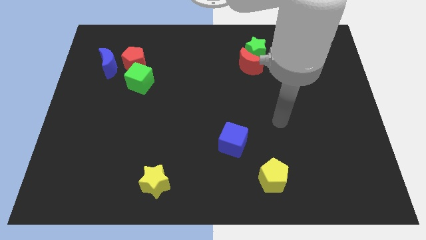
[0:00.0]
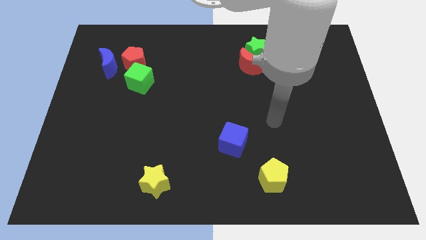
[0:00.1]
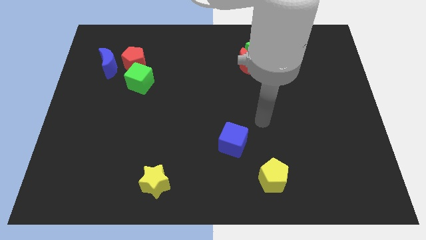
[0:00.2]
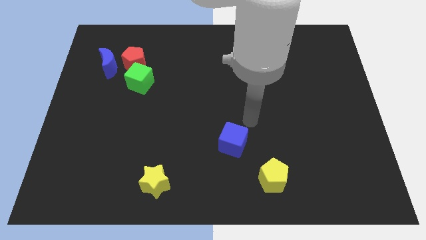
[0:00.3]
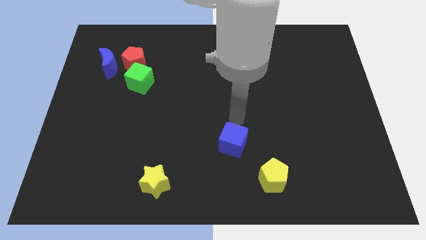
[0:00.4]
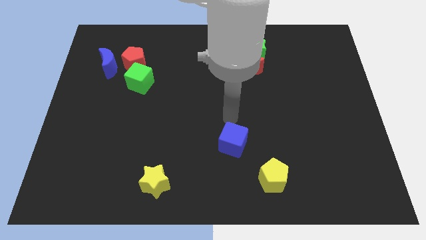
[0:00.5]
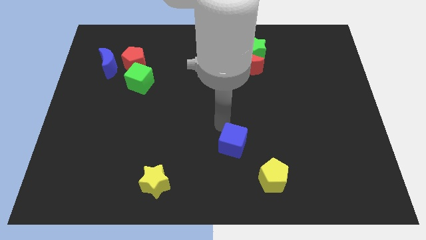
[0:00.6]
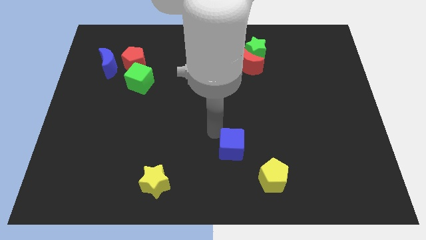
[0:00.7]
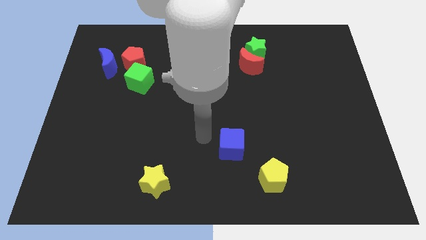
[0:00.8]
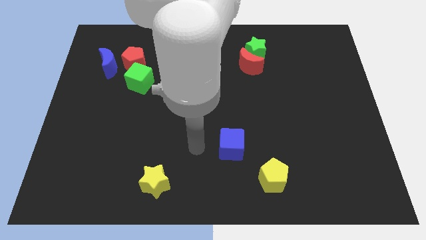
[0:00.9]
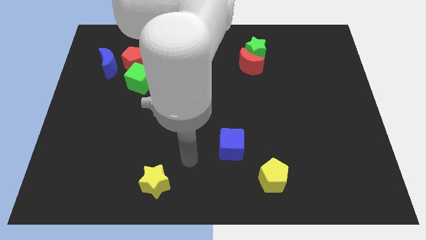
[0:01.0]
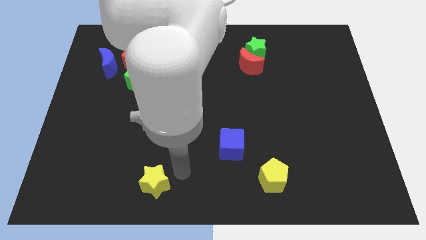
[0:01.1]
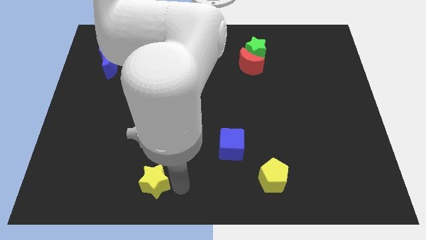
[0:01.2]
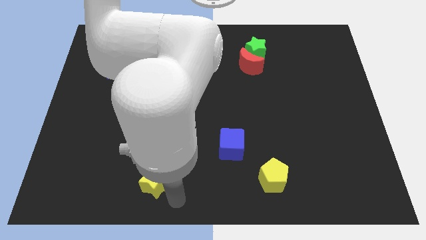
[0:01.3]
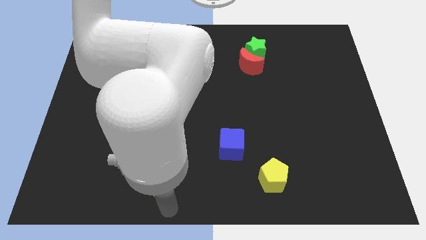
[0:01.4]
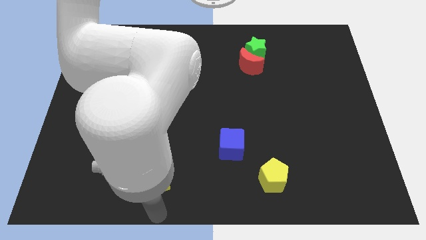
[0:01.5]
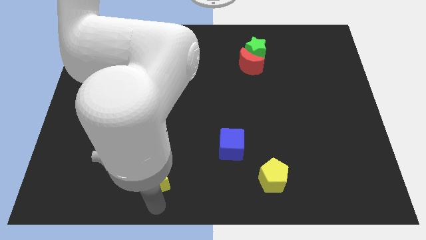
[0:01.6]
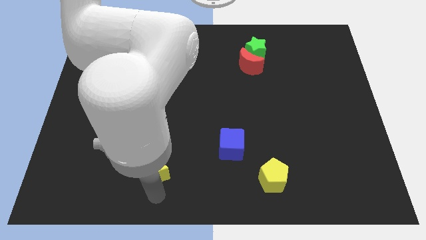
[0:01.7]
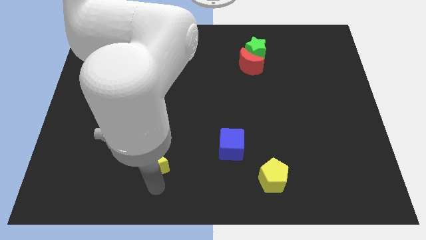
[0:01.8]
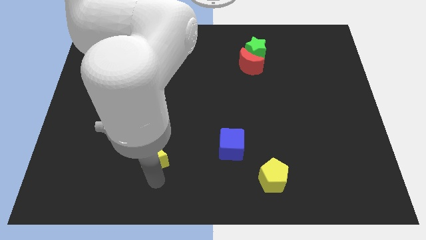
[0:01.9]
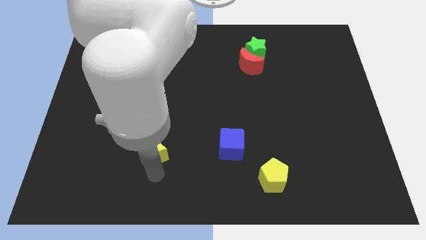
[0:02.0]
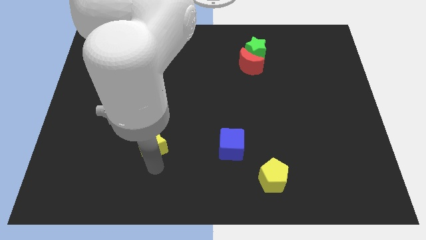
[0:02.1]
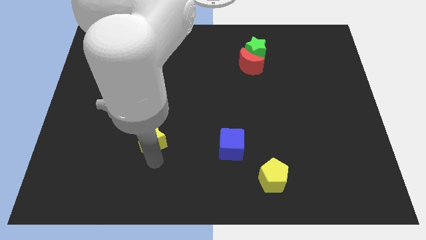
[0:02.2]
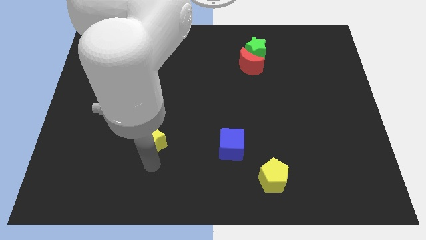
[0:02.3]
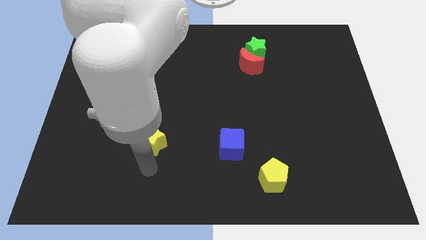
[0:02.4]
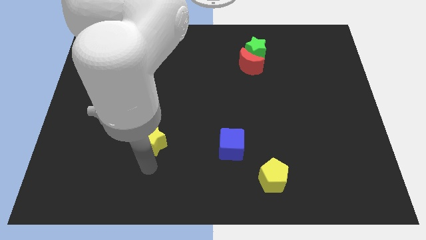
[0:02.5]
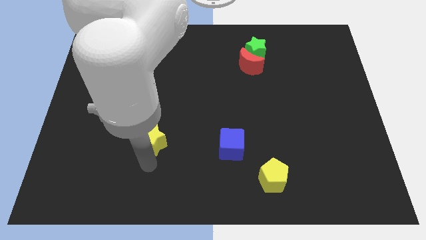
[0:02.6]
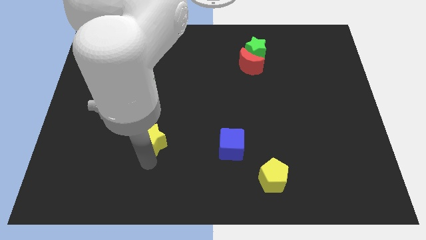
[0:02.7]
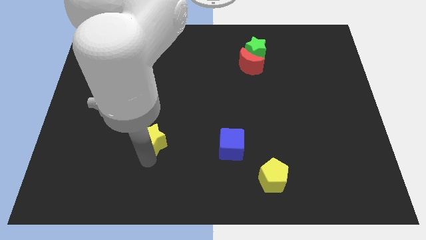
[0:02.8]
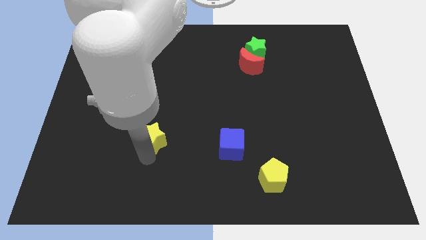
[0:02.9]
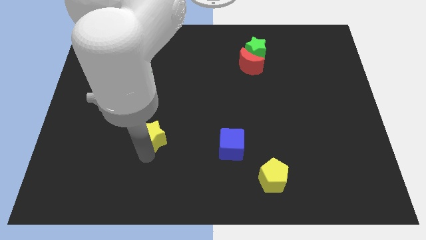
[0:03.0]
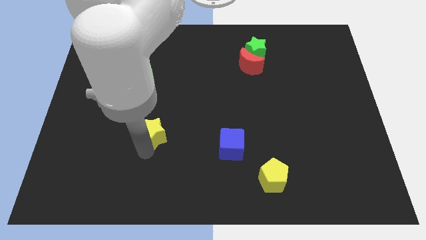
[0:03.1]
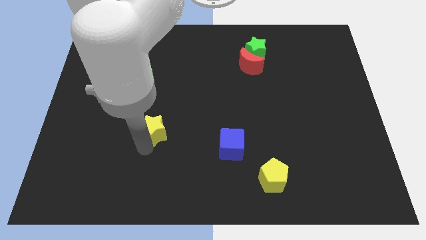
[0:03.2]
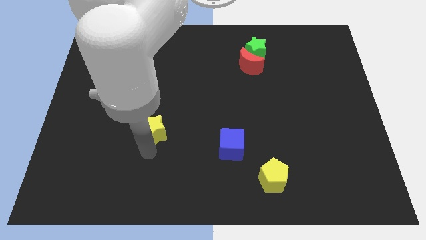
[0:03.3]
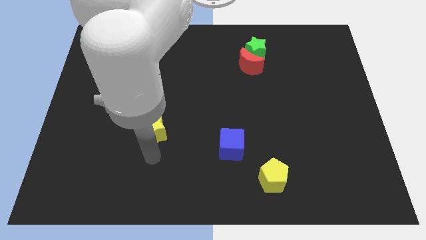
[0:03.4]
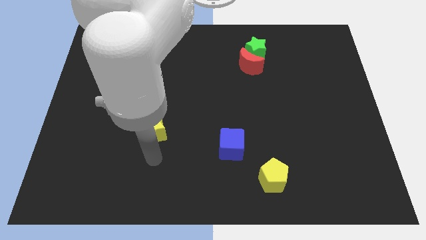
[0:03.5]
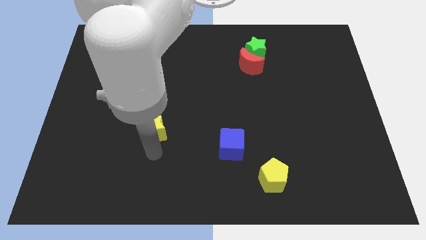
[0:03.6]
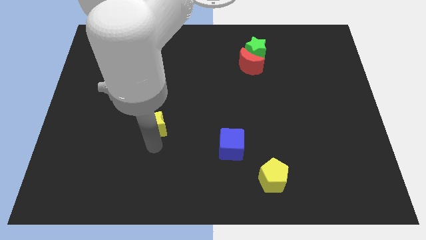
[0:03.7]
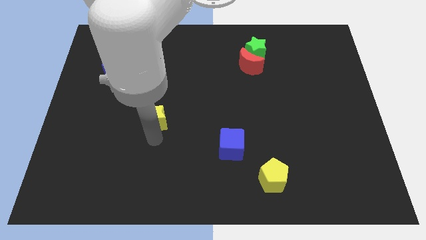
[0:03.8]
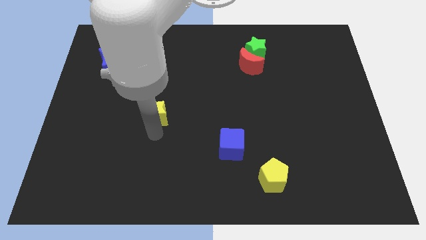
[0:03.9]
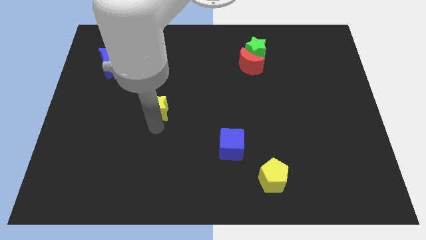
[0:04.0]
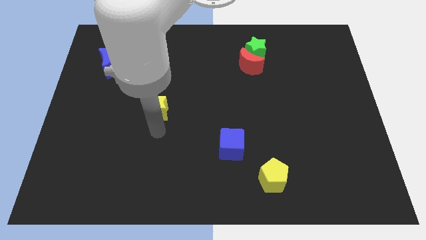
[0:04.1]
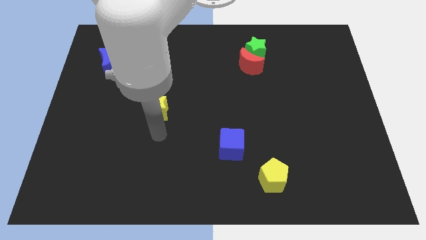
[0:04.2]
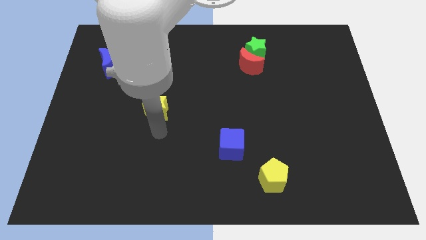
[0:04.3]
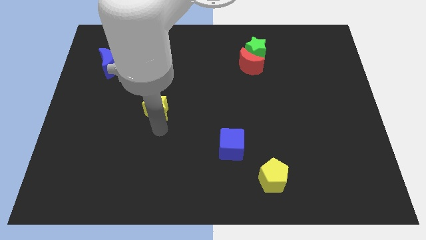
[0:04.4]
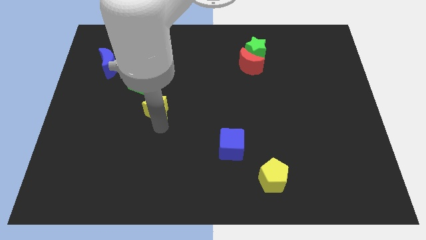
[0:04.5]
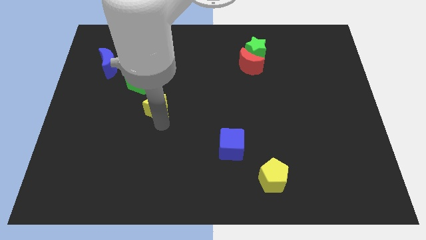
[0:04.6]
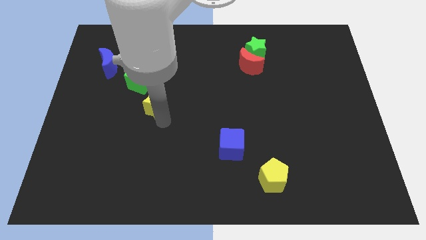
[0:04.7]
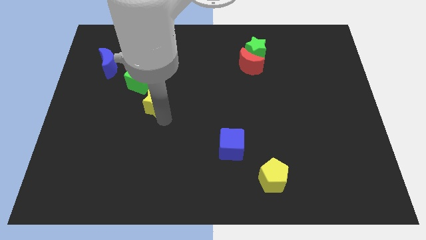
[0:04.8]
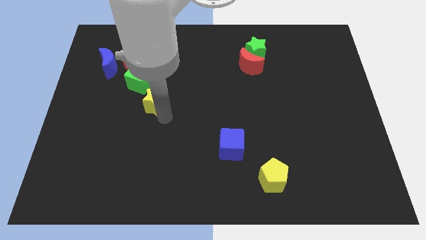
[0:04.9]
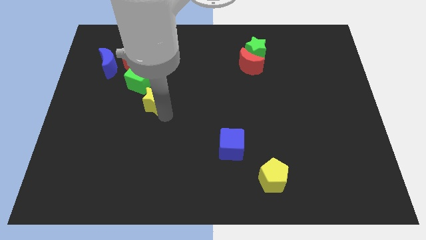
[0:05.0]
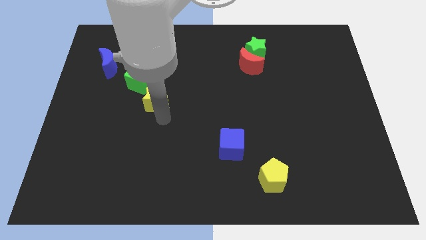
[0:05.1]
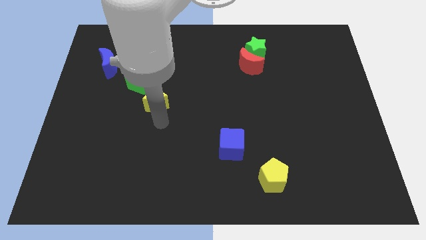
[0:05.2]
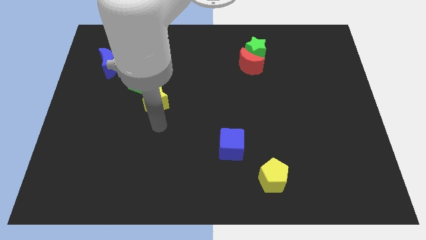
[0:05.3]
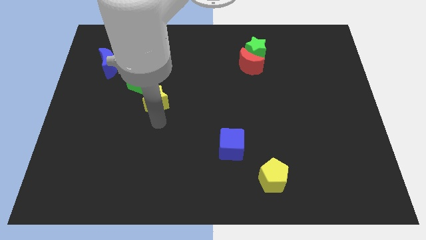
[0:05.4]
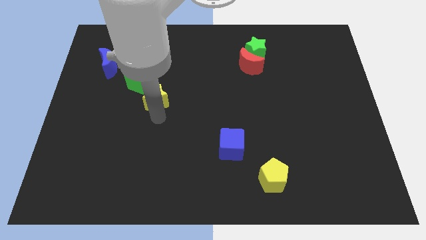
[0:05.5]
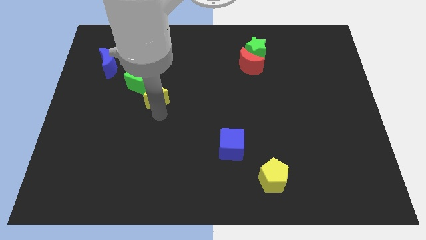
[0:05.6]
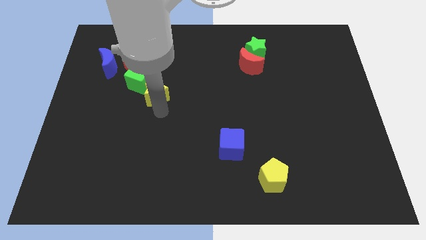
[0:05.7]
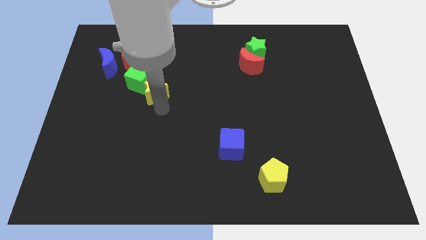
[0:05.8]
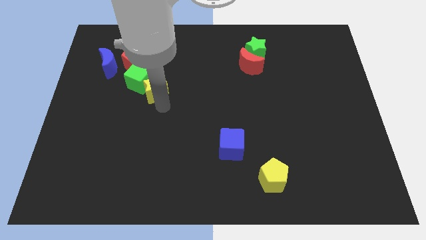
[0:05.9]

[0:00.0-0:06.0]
slide the yellow star towards the green cube

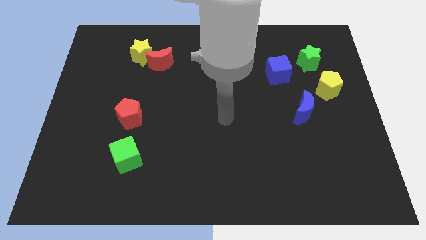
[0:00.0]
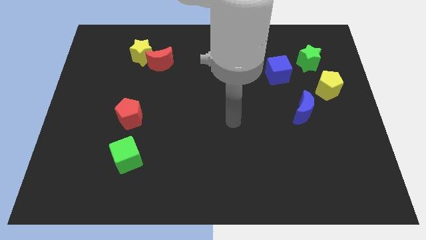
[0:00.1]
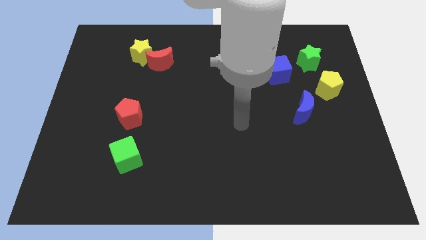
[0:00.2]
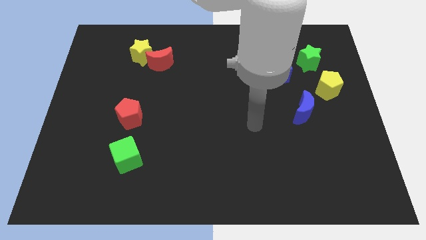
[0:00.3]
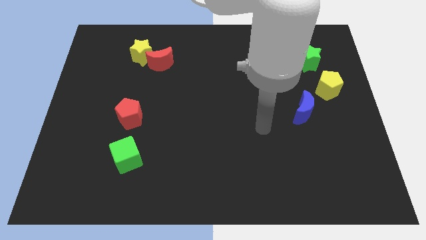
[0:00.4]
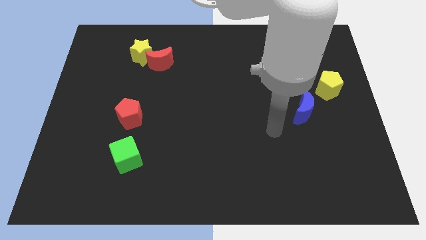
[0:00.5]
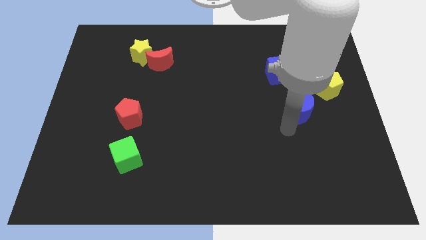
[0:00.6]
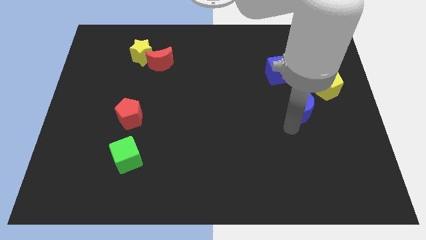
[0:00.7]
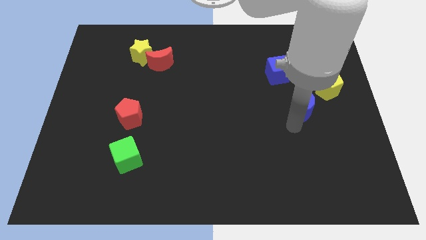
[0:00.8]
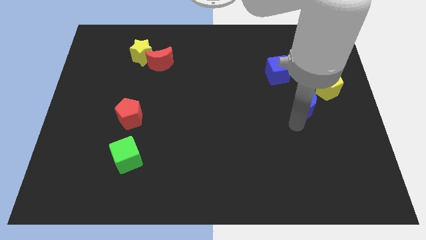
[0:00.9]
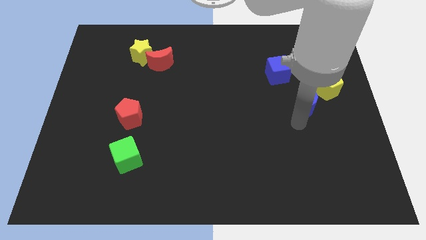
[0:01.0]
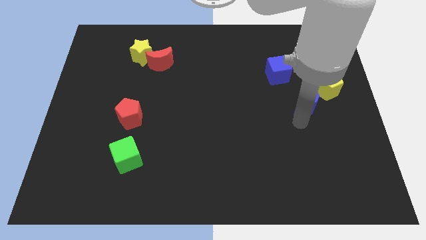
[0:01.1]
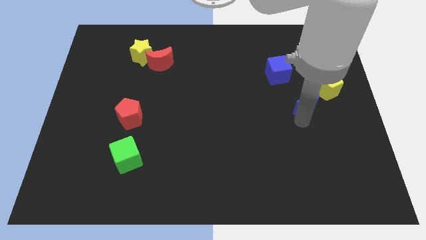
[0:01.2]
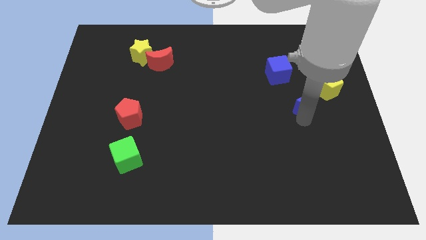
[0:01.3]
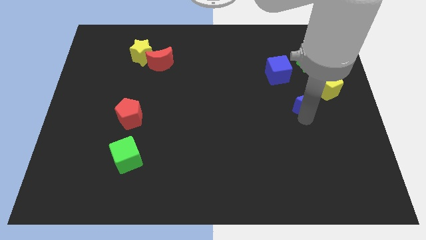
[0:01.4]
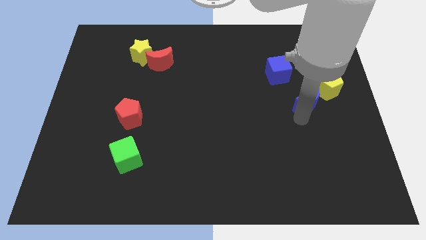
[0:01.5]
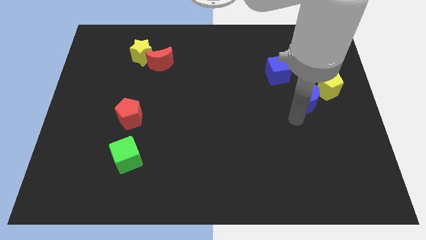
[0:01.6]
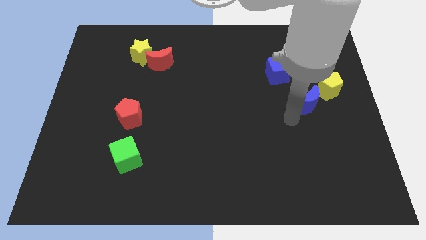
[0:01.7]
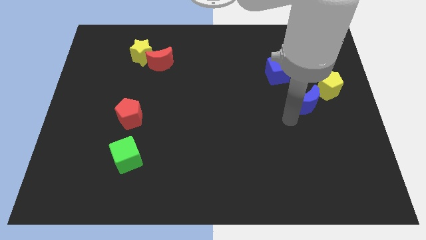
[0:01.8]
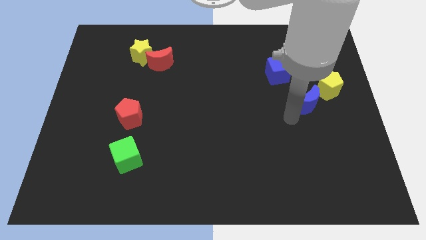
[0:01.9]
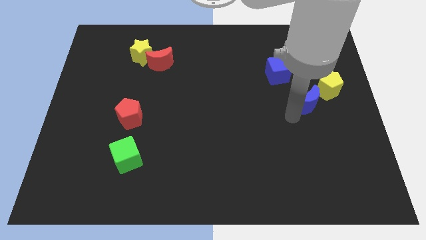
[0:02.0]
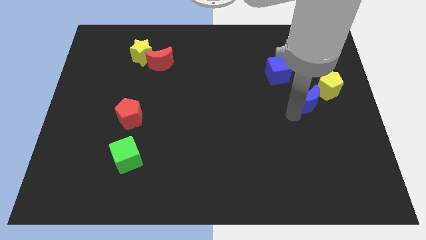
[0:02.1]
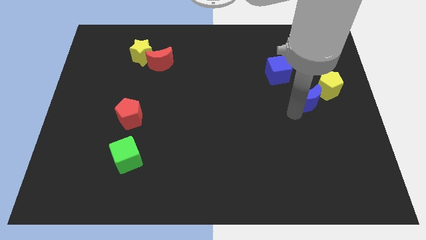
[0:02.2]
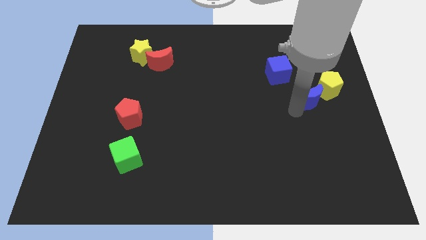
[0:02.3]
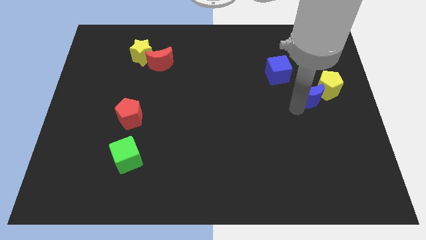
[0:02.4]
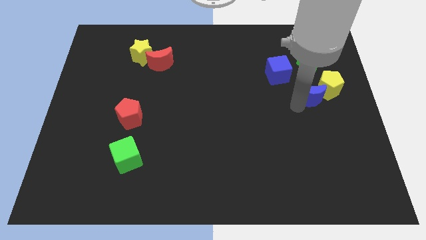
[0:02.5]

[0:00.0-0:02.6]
push the blue moon close to the yellow pentagon
